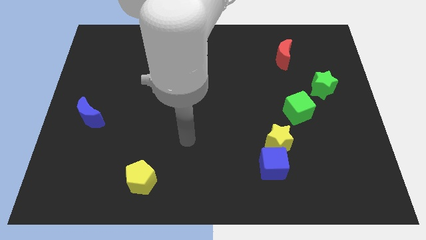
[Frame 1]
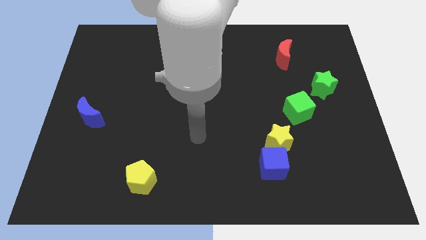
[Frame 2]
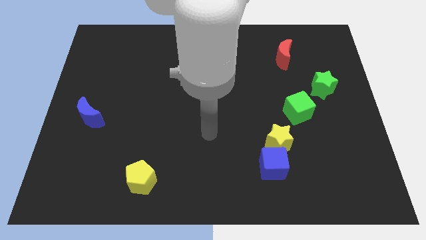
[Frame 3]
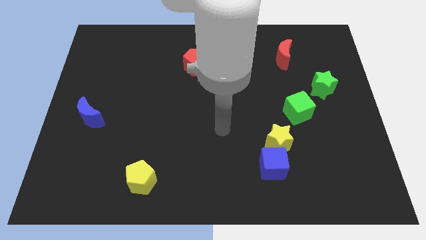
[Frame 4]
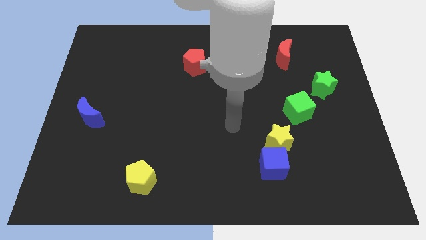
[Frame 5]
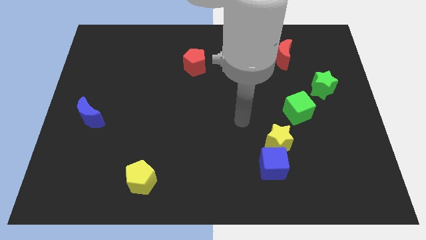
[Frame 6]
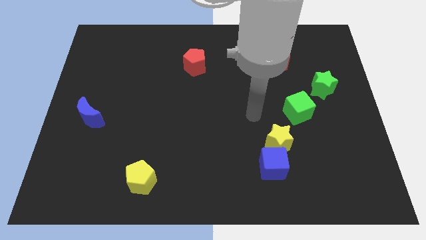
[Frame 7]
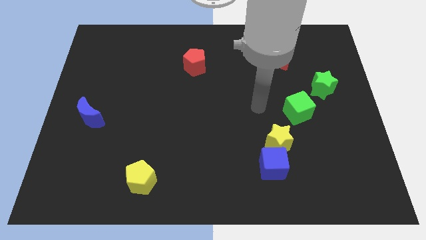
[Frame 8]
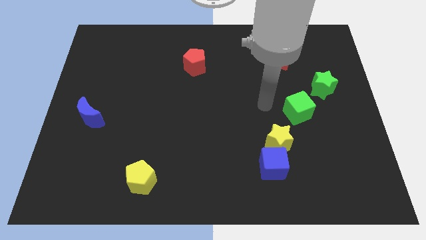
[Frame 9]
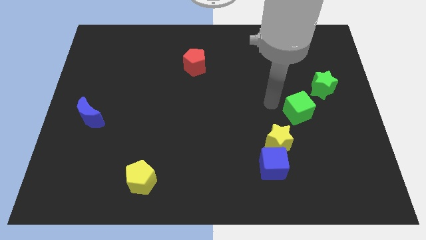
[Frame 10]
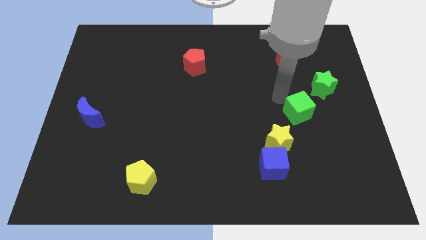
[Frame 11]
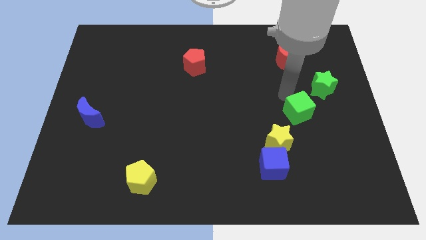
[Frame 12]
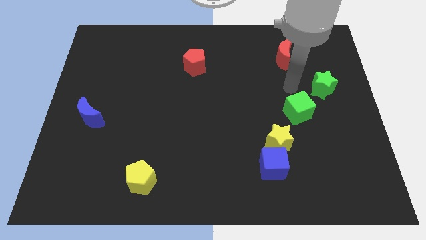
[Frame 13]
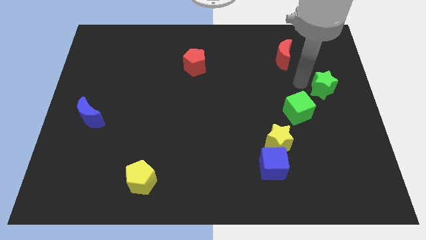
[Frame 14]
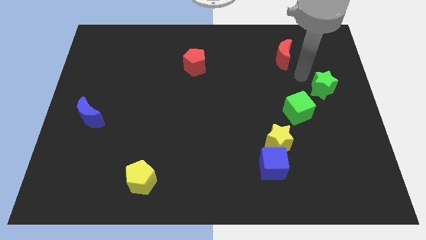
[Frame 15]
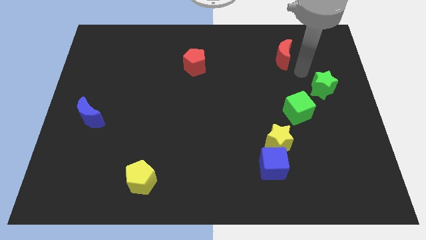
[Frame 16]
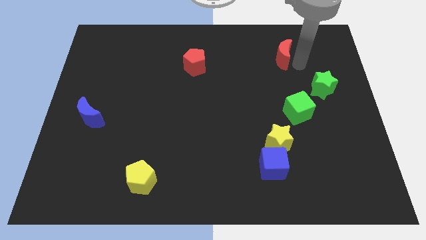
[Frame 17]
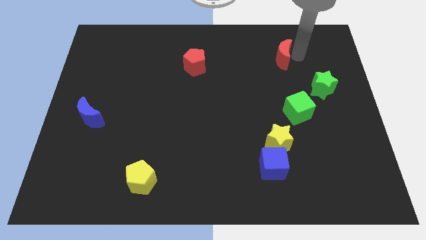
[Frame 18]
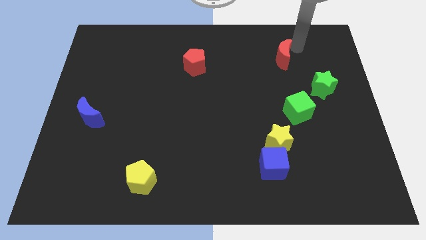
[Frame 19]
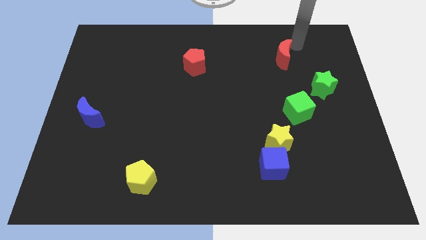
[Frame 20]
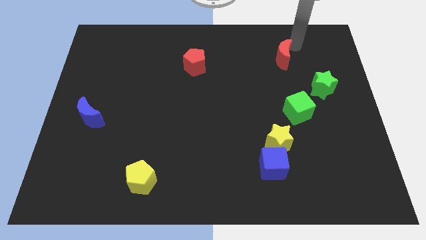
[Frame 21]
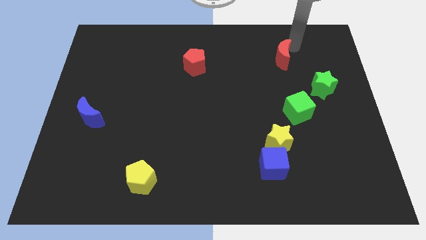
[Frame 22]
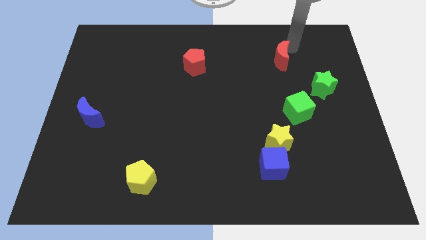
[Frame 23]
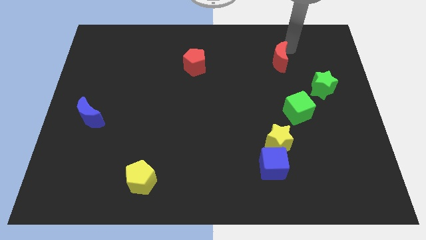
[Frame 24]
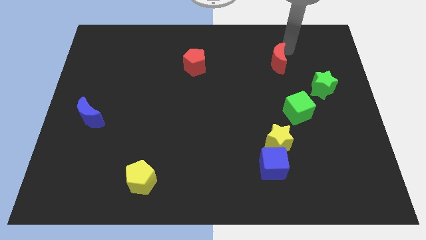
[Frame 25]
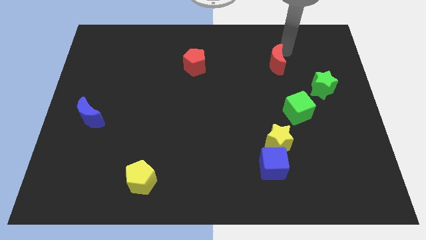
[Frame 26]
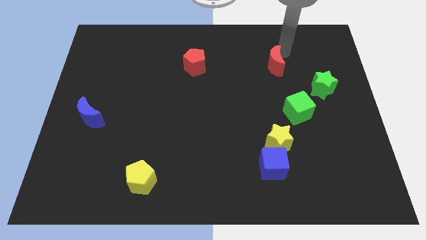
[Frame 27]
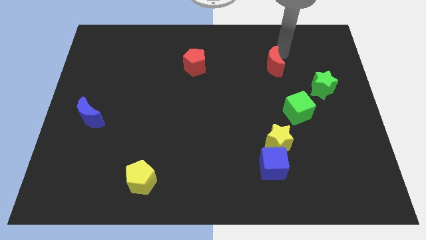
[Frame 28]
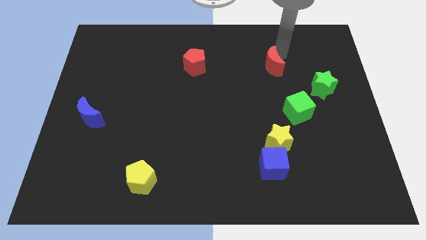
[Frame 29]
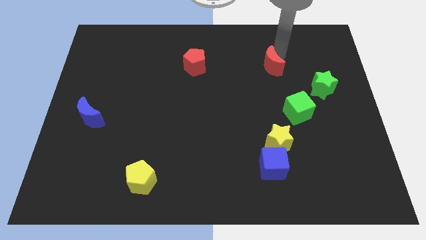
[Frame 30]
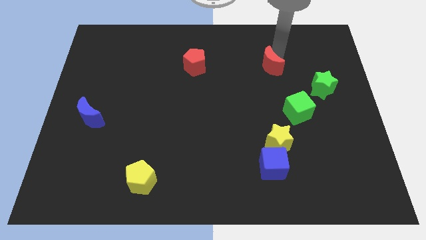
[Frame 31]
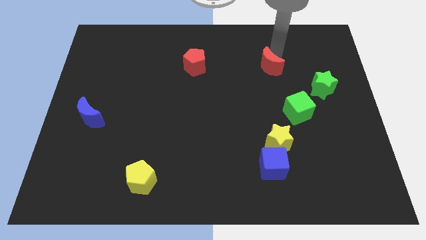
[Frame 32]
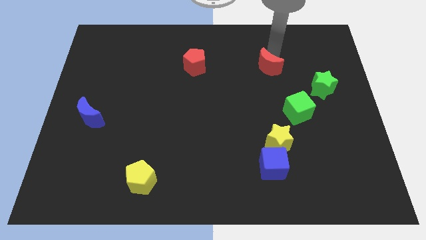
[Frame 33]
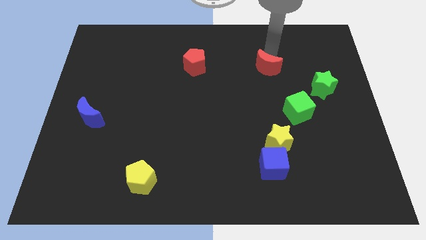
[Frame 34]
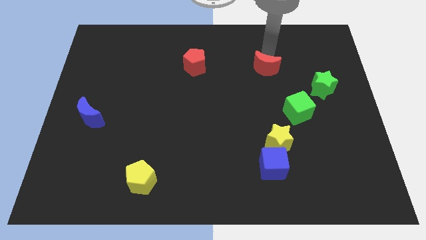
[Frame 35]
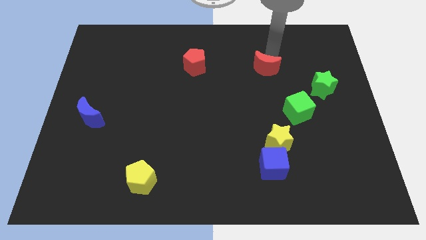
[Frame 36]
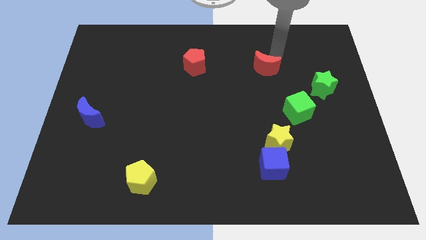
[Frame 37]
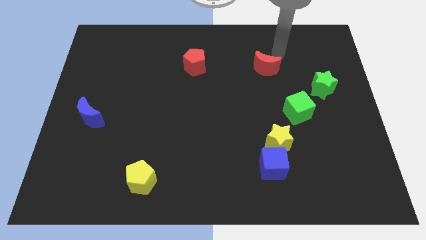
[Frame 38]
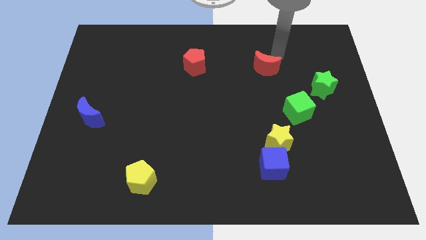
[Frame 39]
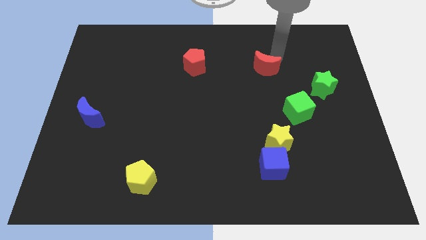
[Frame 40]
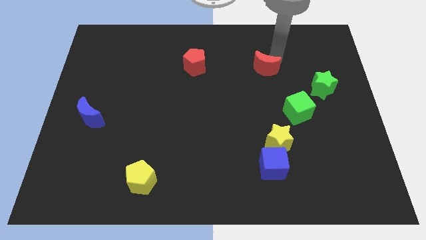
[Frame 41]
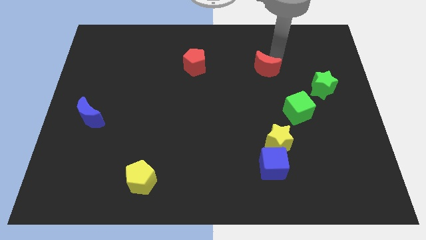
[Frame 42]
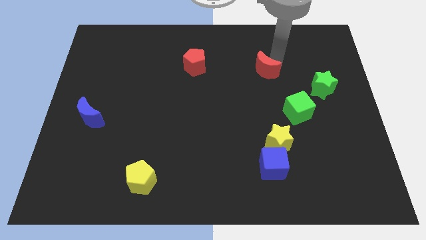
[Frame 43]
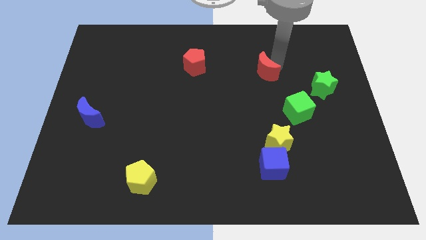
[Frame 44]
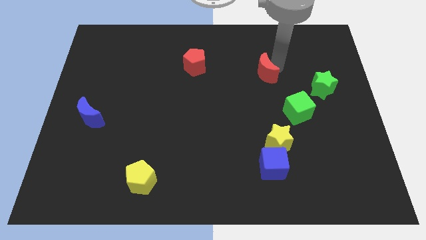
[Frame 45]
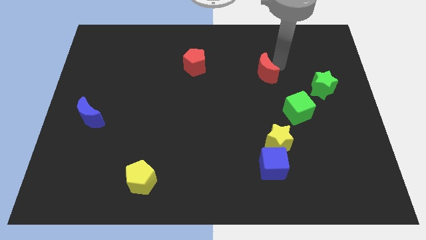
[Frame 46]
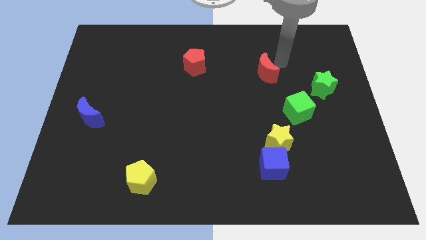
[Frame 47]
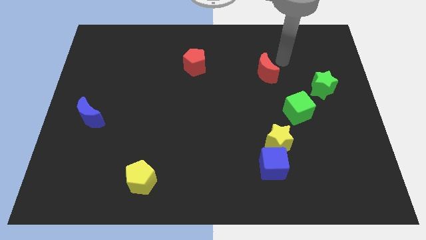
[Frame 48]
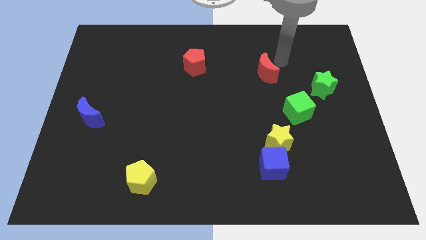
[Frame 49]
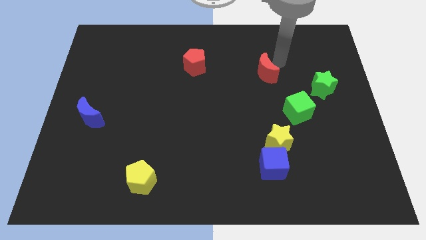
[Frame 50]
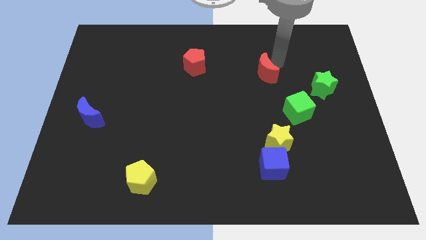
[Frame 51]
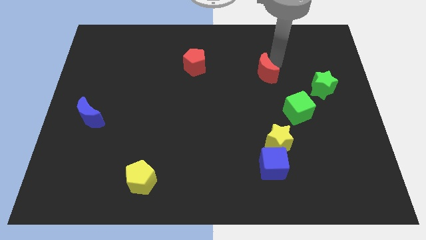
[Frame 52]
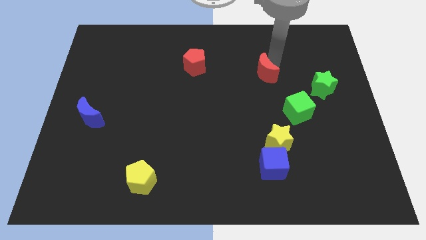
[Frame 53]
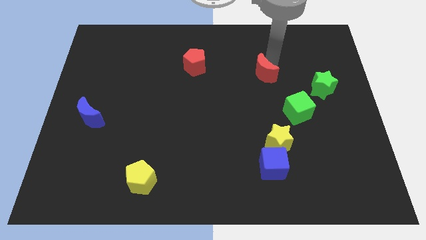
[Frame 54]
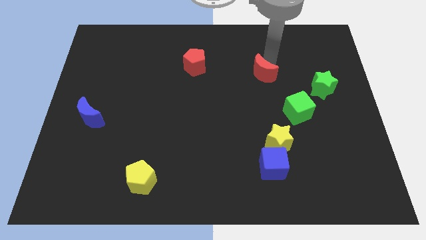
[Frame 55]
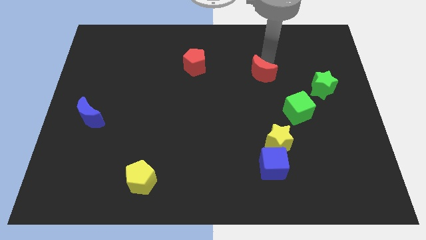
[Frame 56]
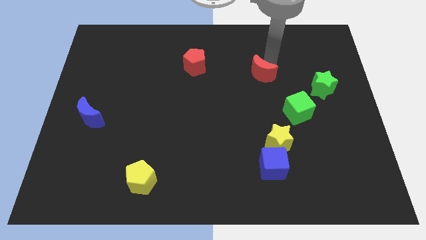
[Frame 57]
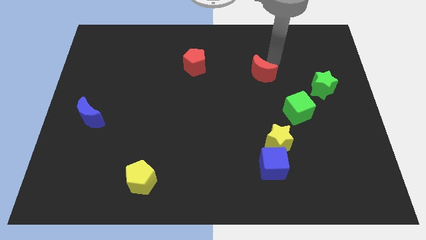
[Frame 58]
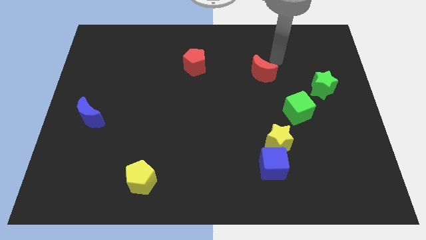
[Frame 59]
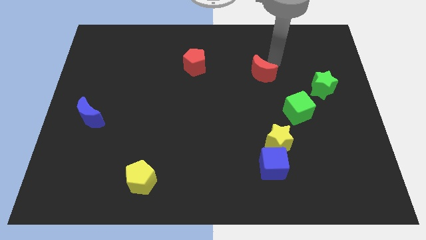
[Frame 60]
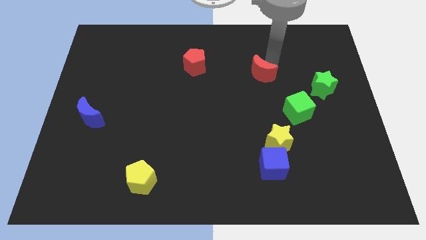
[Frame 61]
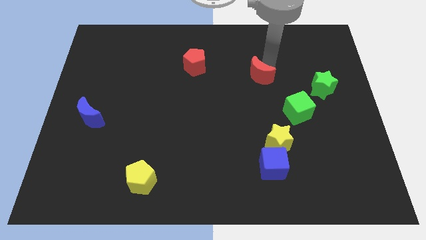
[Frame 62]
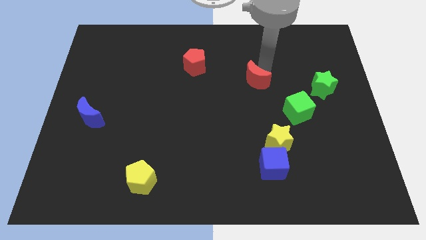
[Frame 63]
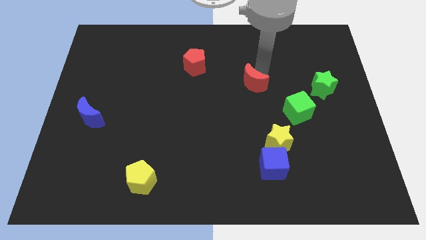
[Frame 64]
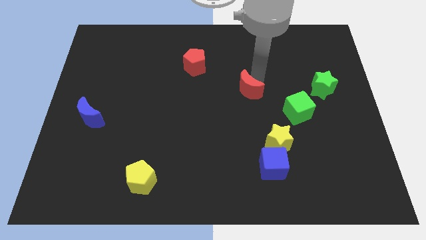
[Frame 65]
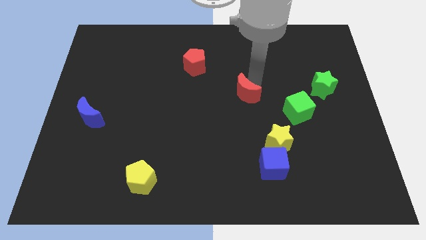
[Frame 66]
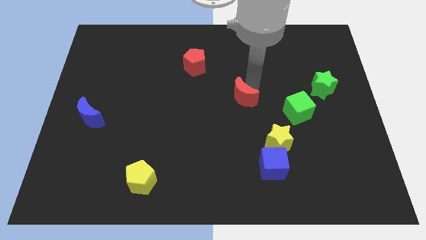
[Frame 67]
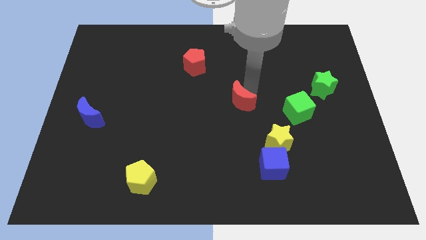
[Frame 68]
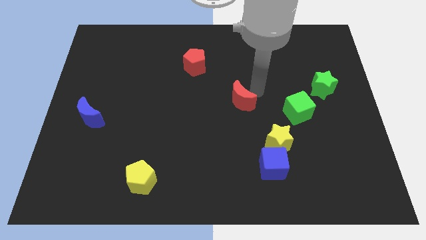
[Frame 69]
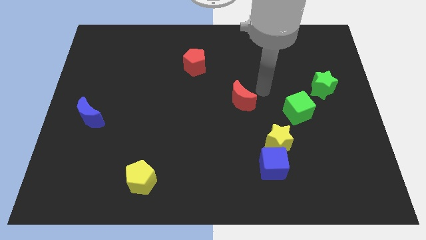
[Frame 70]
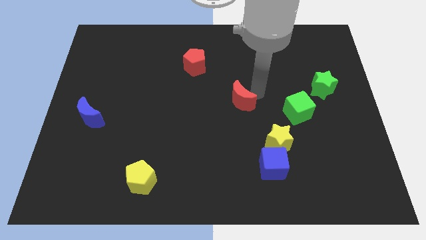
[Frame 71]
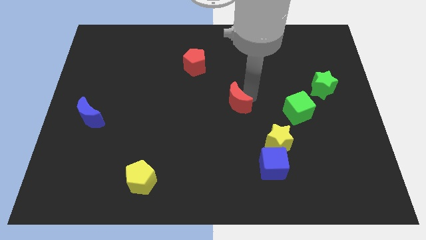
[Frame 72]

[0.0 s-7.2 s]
move the red moon downwards and to the left diagonally

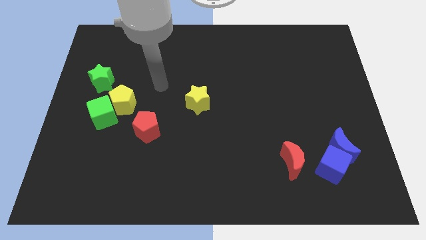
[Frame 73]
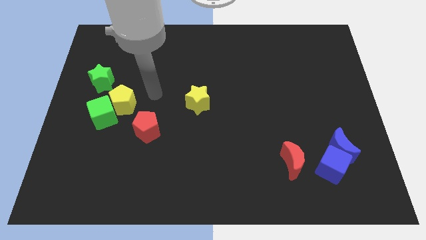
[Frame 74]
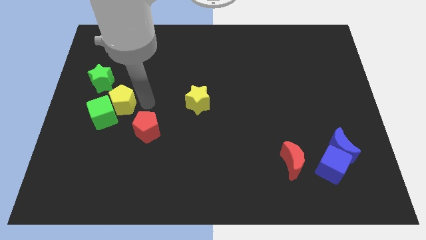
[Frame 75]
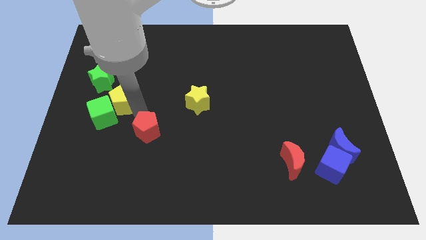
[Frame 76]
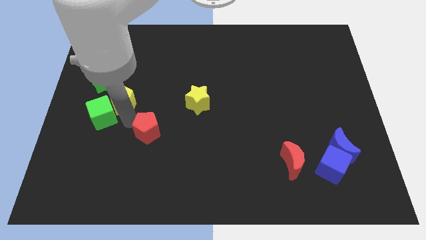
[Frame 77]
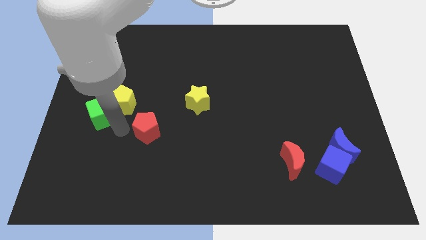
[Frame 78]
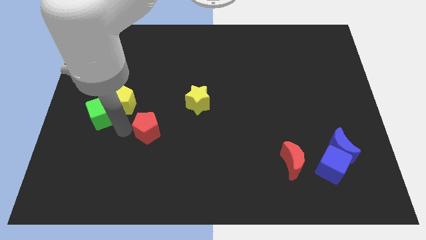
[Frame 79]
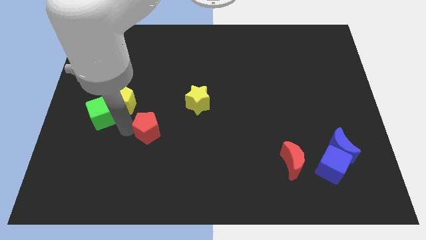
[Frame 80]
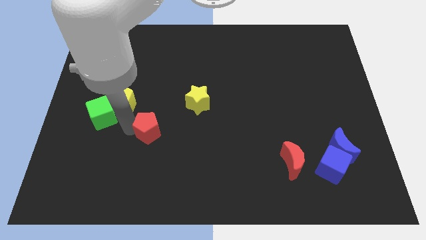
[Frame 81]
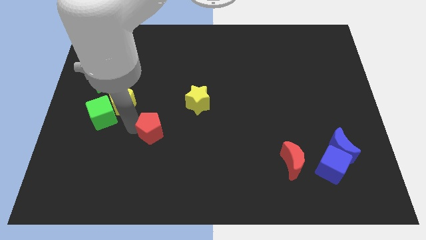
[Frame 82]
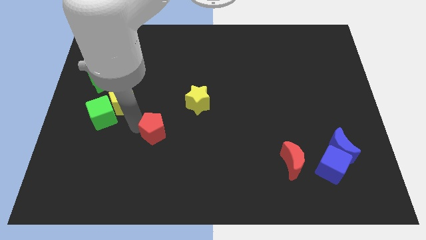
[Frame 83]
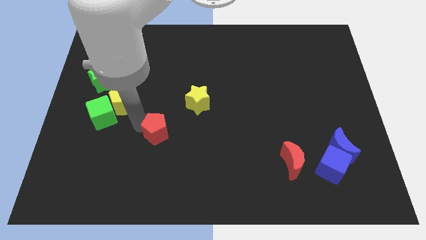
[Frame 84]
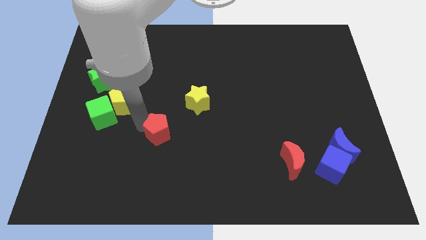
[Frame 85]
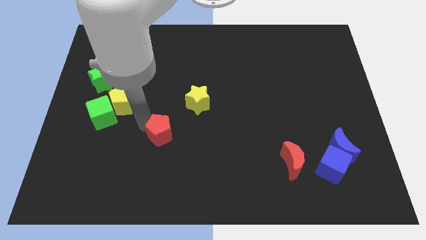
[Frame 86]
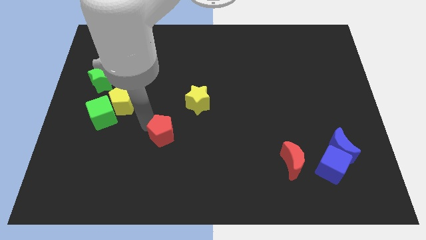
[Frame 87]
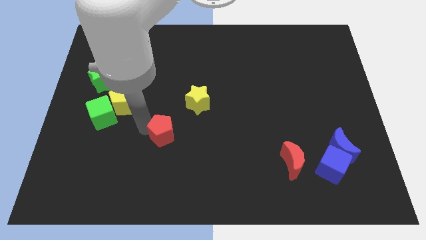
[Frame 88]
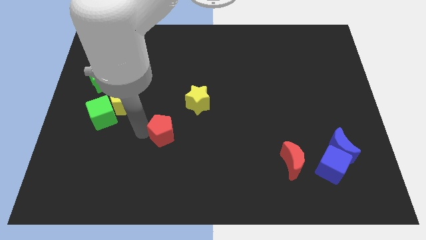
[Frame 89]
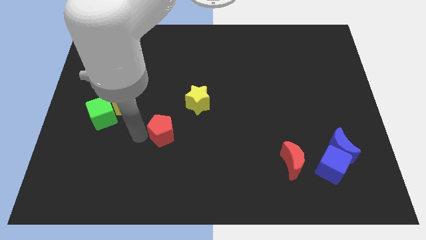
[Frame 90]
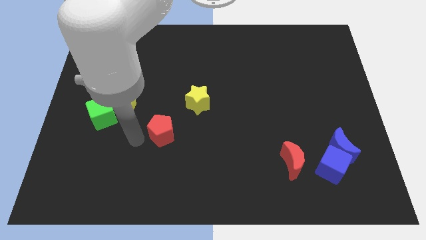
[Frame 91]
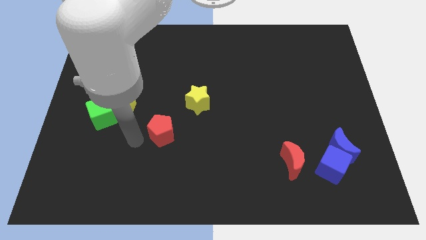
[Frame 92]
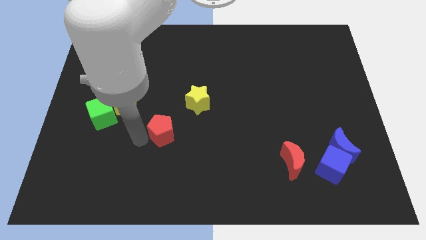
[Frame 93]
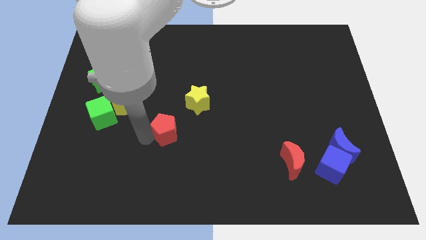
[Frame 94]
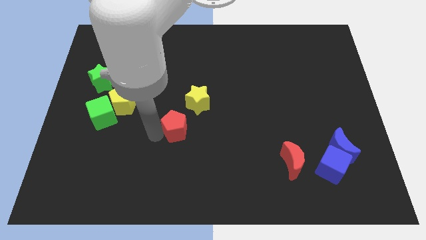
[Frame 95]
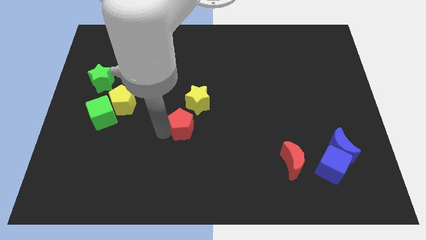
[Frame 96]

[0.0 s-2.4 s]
move the red pentagon a little right
